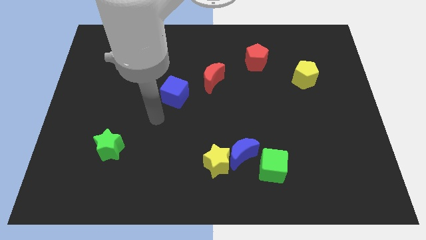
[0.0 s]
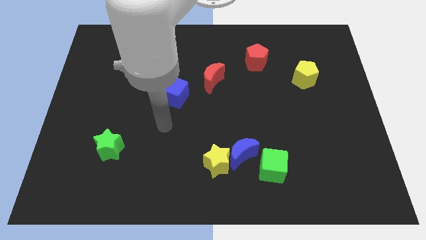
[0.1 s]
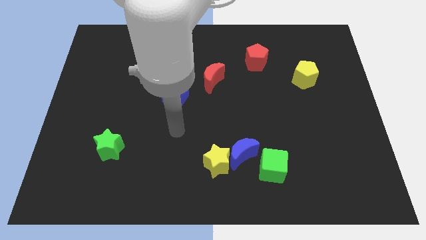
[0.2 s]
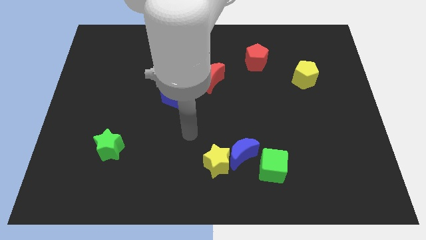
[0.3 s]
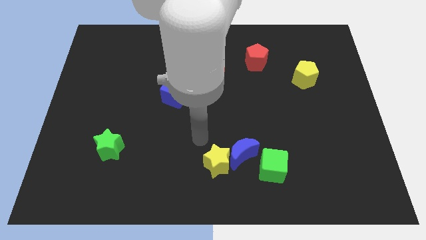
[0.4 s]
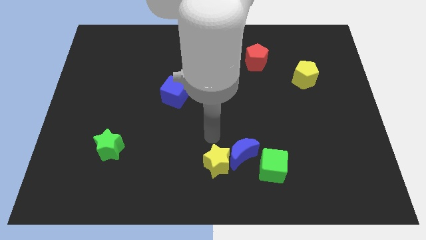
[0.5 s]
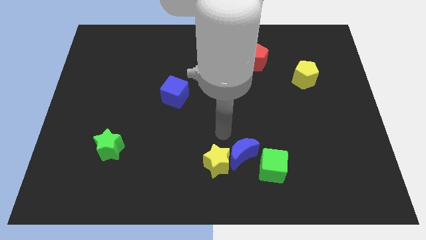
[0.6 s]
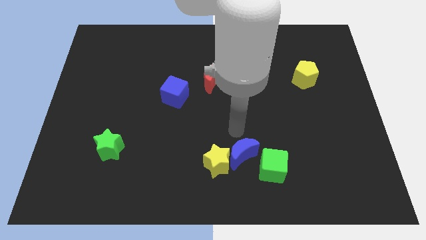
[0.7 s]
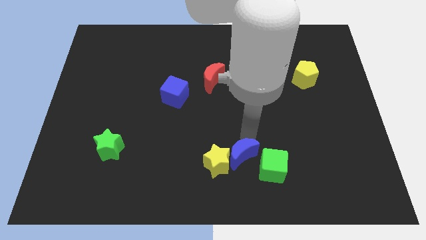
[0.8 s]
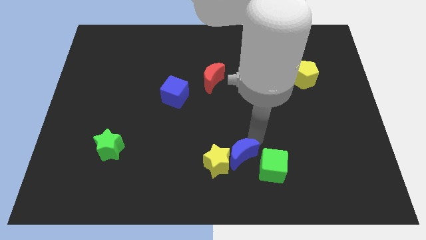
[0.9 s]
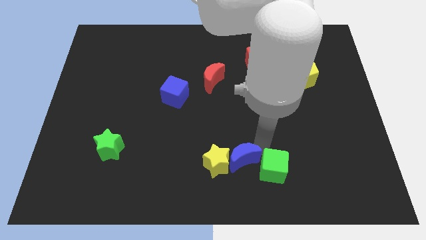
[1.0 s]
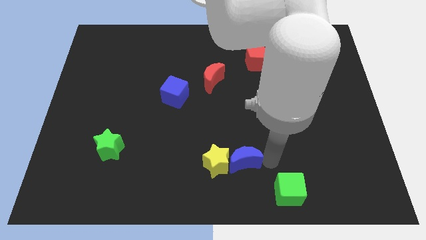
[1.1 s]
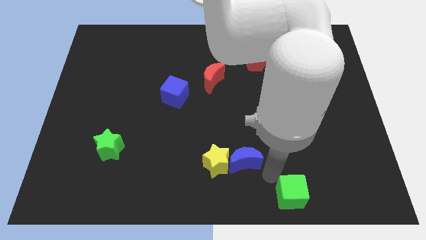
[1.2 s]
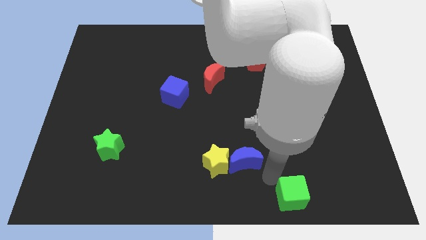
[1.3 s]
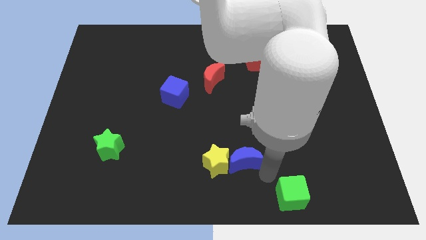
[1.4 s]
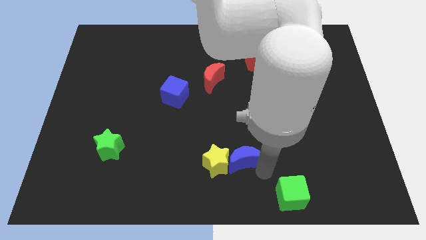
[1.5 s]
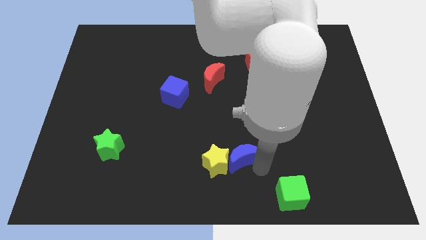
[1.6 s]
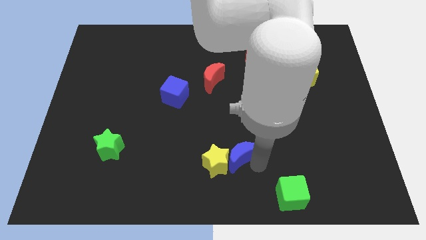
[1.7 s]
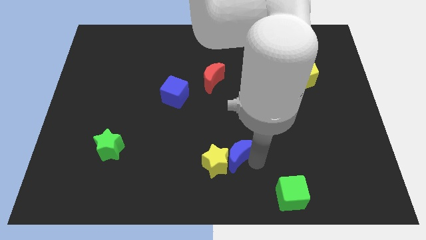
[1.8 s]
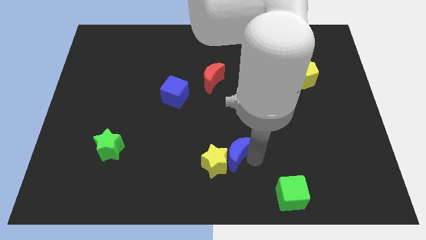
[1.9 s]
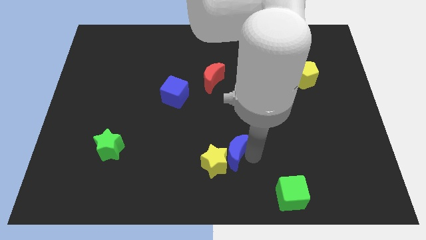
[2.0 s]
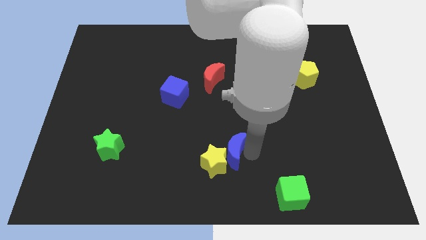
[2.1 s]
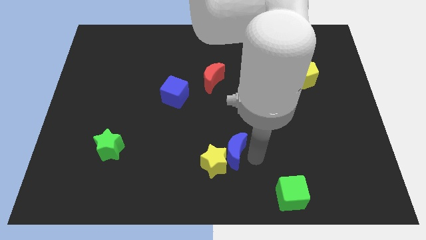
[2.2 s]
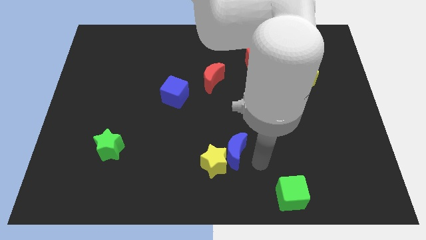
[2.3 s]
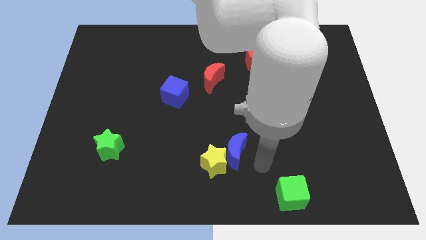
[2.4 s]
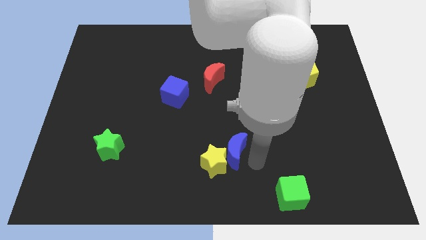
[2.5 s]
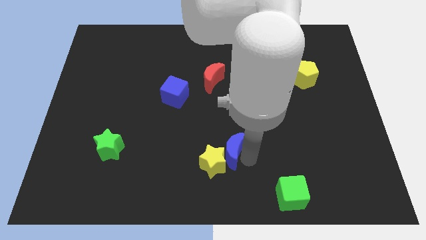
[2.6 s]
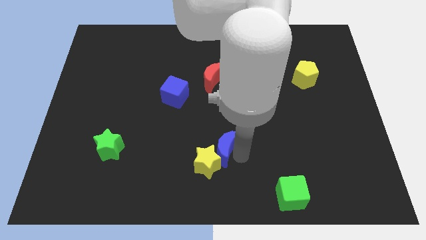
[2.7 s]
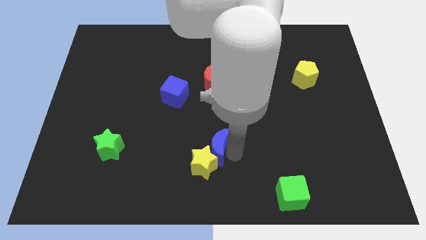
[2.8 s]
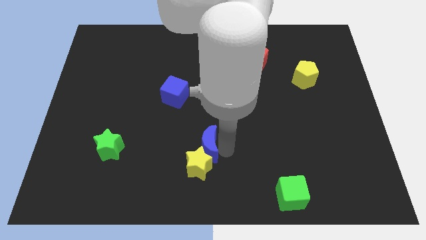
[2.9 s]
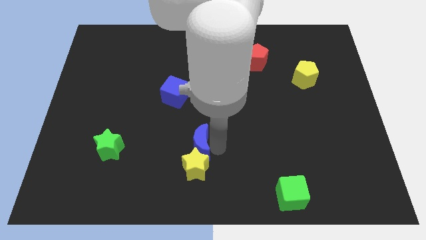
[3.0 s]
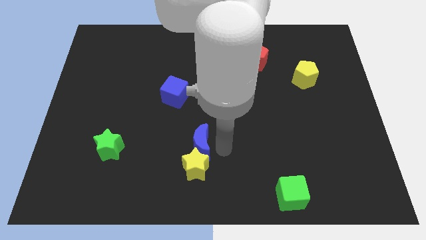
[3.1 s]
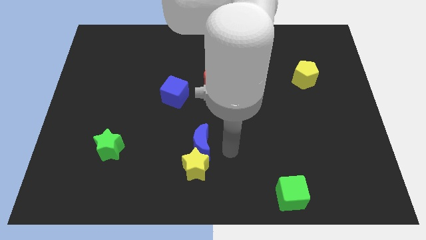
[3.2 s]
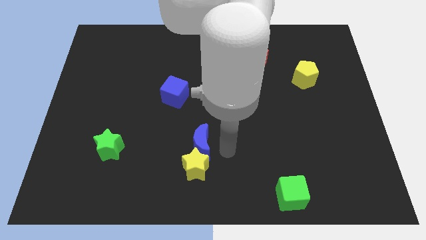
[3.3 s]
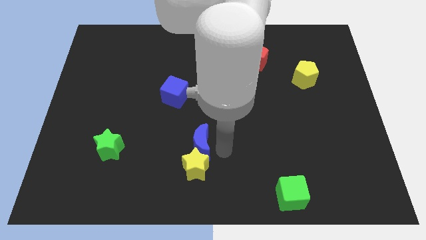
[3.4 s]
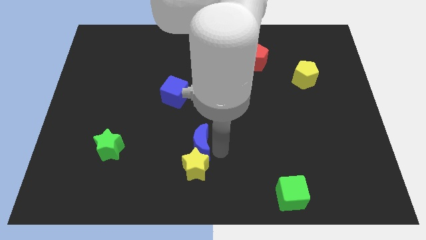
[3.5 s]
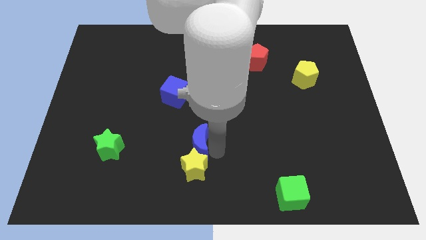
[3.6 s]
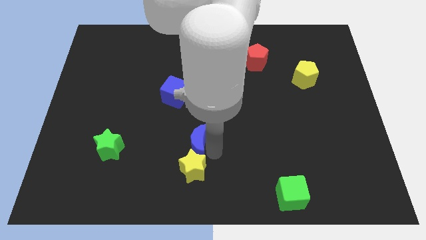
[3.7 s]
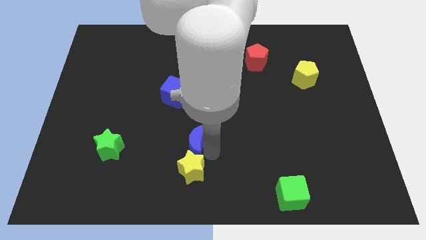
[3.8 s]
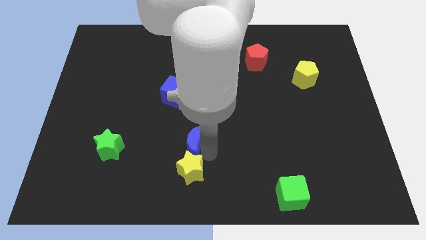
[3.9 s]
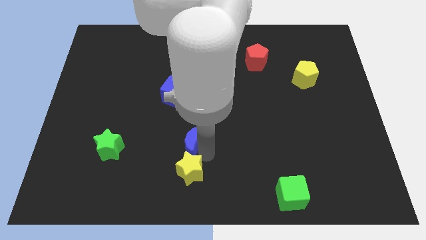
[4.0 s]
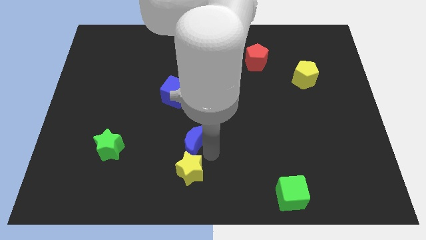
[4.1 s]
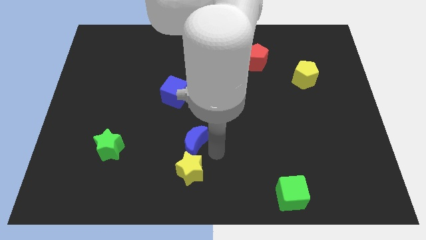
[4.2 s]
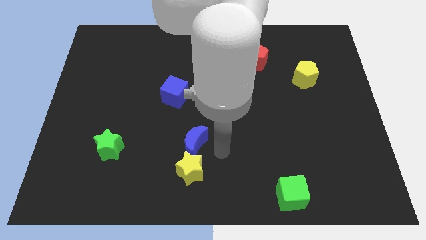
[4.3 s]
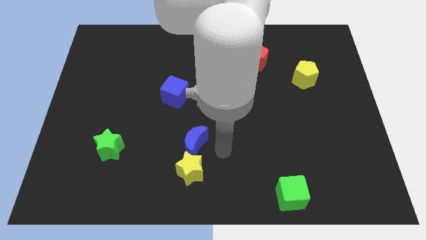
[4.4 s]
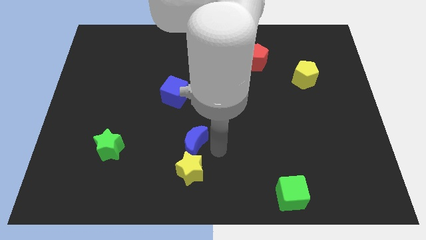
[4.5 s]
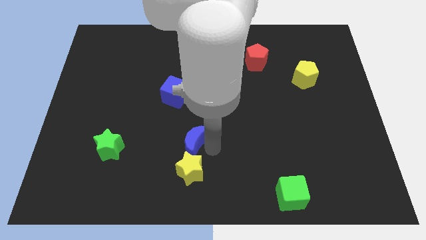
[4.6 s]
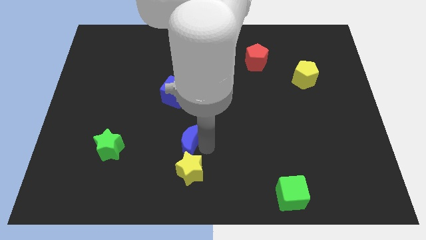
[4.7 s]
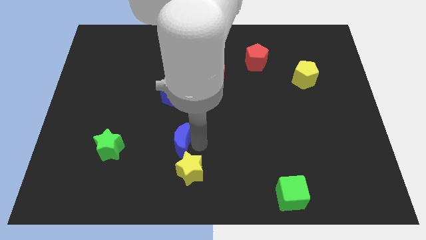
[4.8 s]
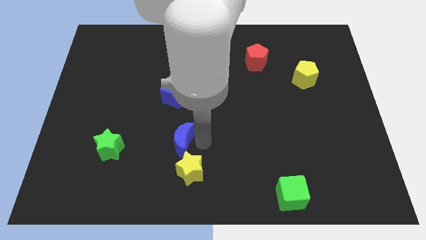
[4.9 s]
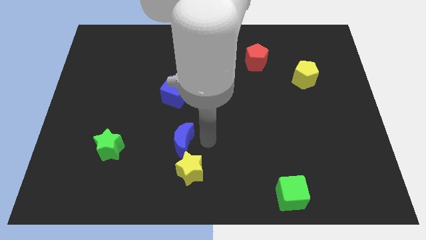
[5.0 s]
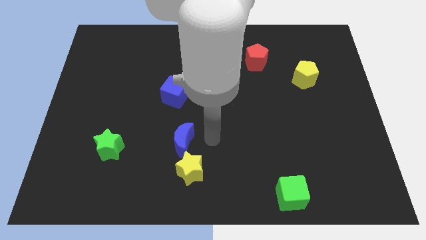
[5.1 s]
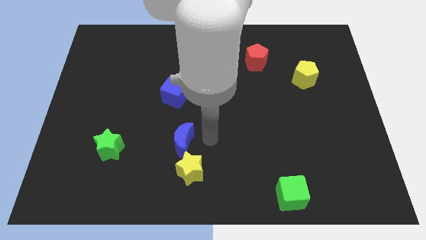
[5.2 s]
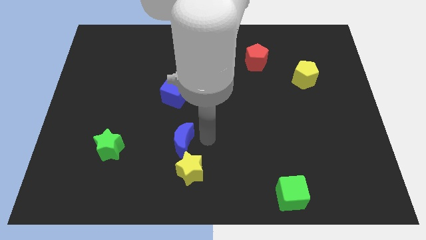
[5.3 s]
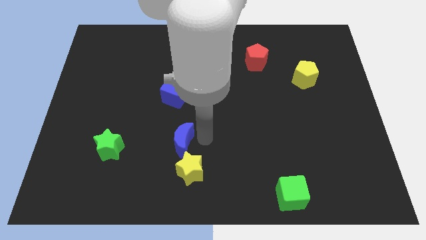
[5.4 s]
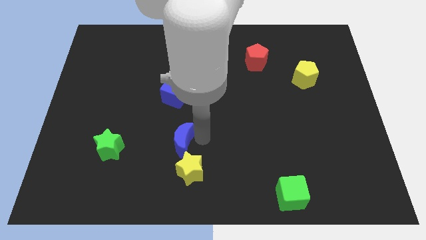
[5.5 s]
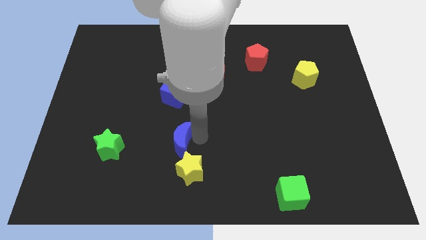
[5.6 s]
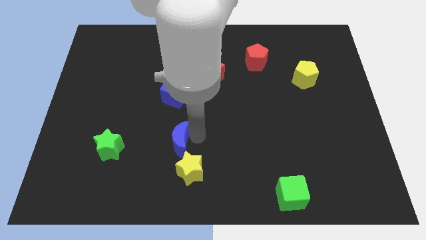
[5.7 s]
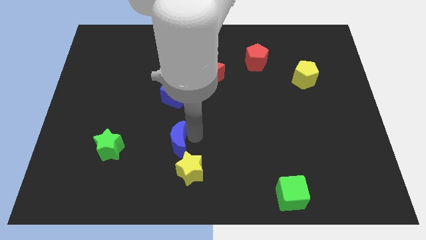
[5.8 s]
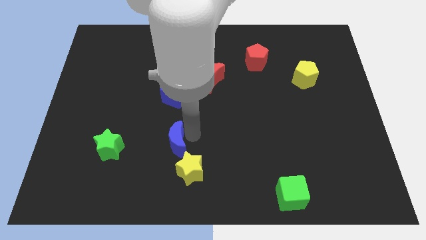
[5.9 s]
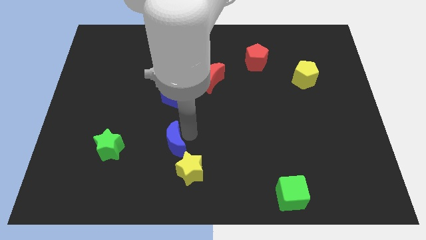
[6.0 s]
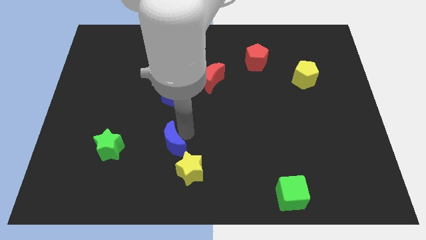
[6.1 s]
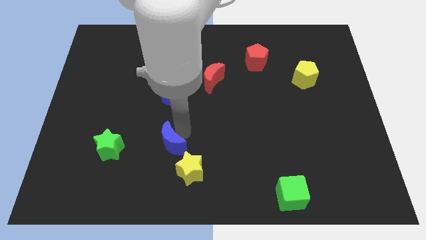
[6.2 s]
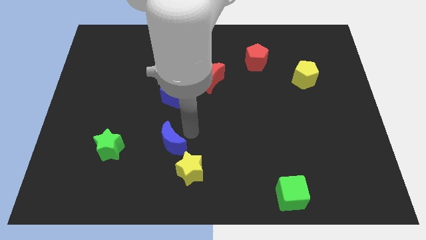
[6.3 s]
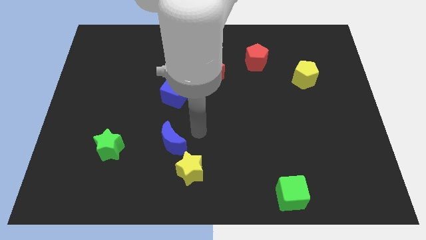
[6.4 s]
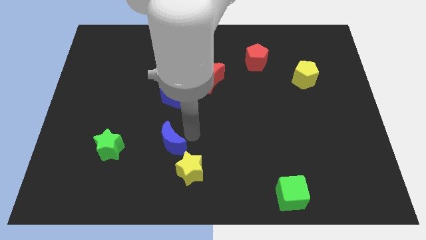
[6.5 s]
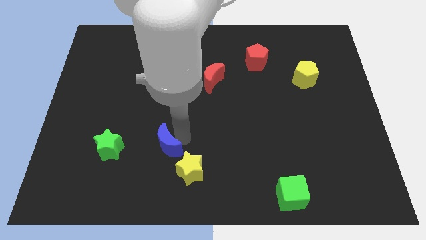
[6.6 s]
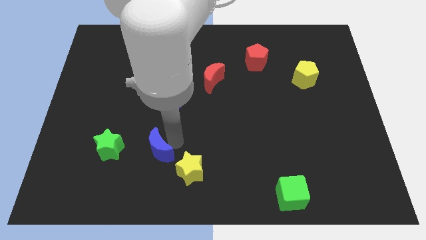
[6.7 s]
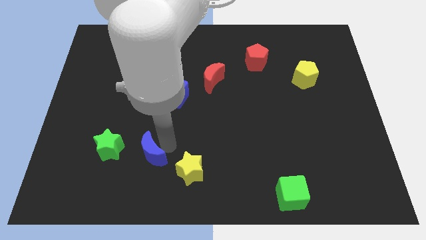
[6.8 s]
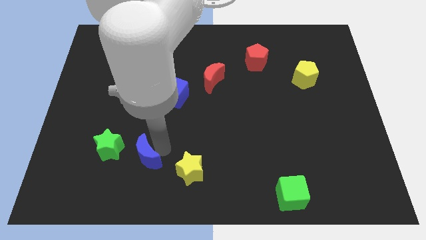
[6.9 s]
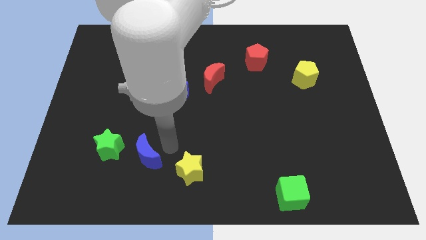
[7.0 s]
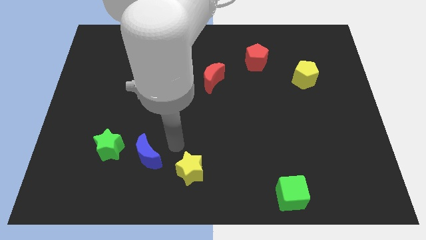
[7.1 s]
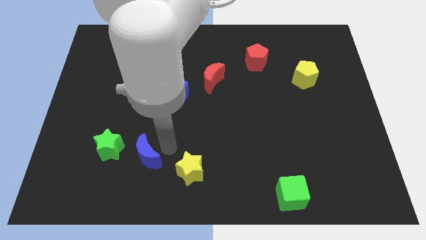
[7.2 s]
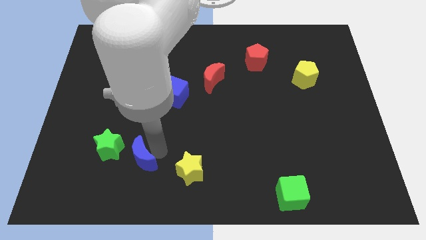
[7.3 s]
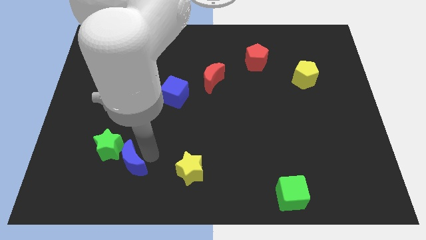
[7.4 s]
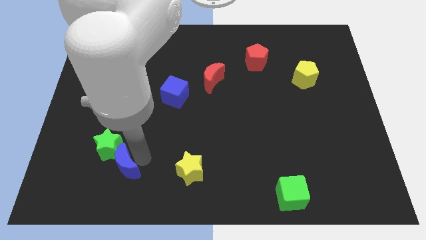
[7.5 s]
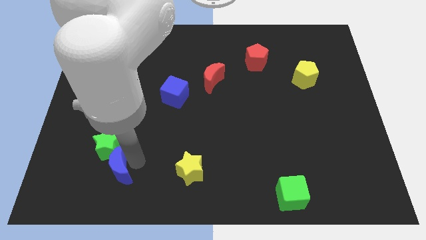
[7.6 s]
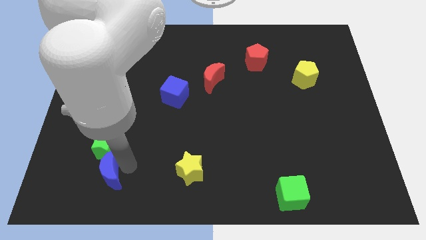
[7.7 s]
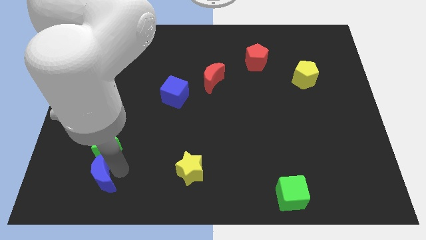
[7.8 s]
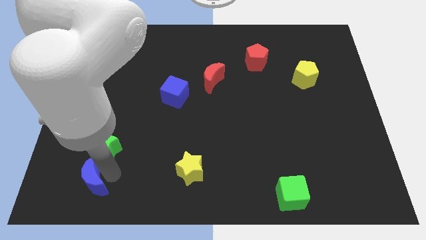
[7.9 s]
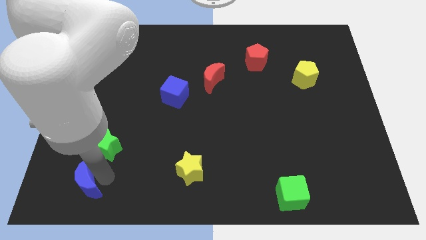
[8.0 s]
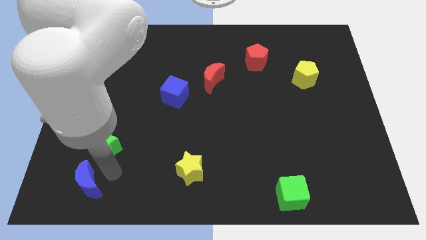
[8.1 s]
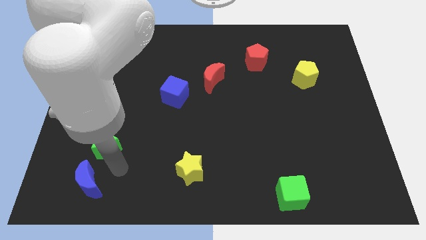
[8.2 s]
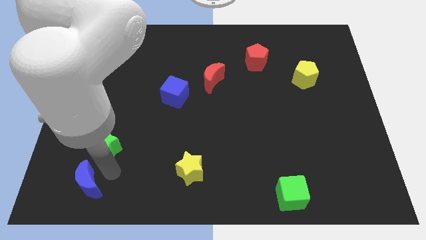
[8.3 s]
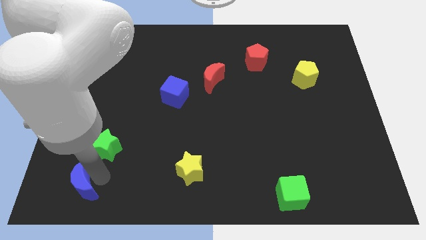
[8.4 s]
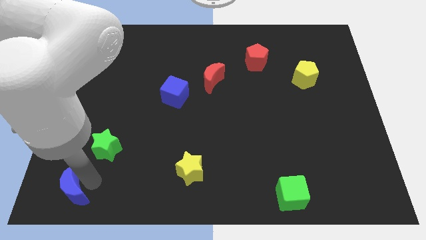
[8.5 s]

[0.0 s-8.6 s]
put the blue moon to the lower left corner
